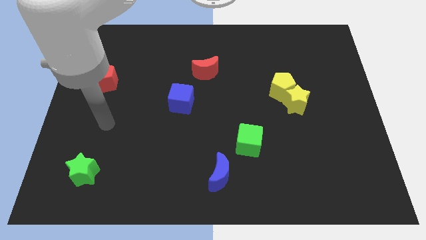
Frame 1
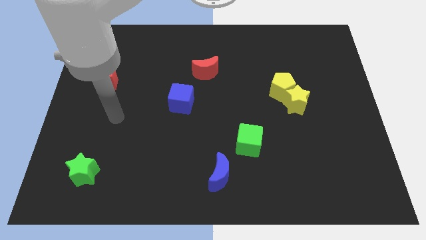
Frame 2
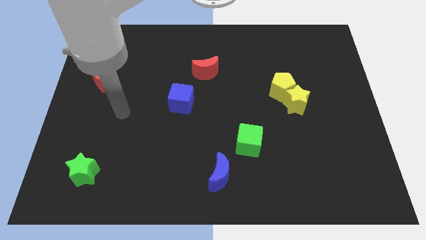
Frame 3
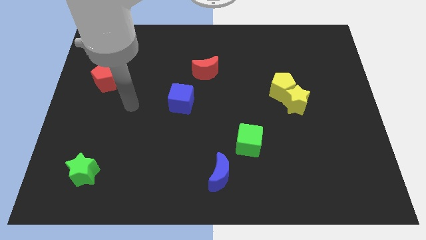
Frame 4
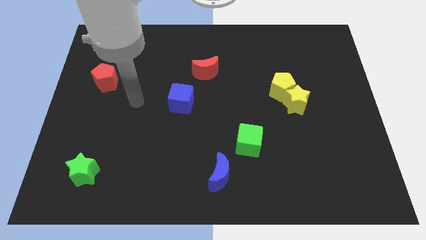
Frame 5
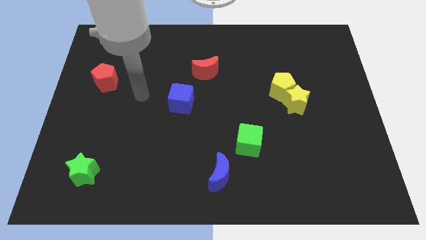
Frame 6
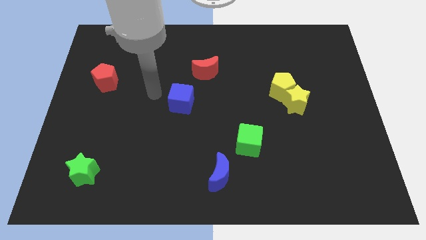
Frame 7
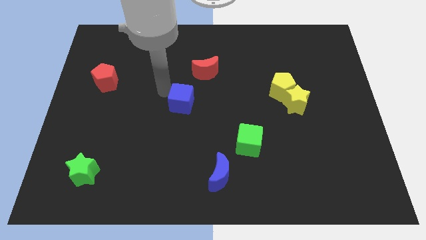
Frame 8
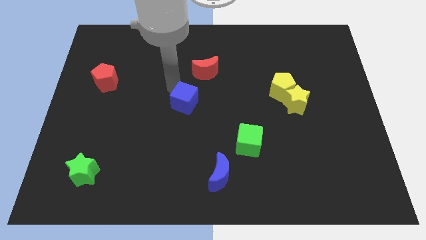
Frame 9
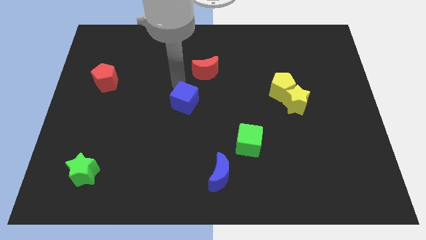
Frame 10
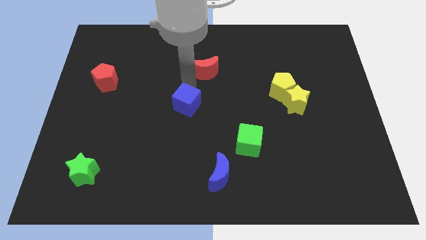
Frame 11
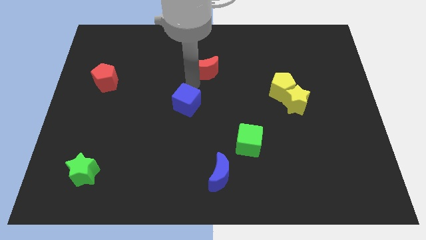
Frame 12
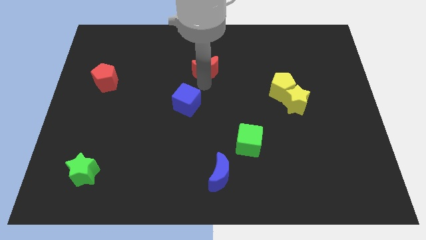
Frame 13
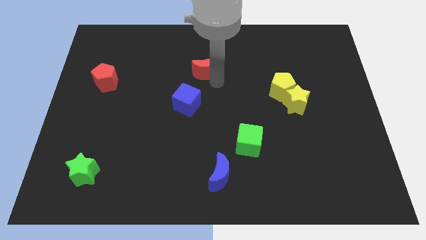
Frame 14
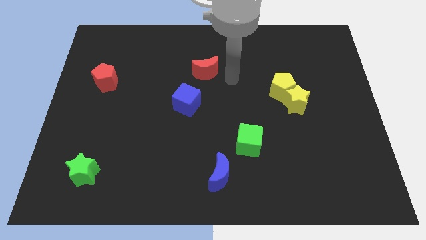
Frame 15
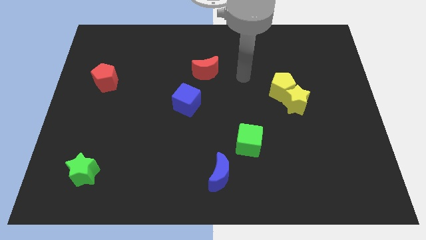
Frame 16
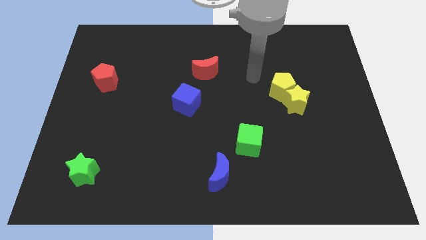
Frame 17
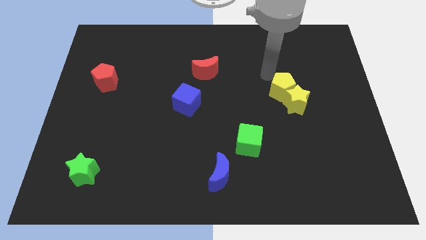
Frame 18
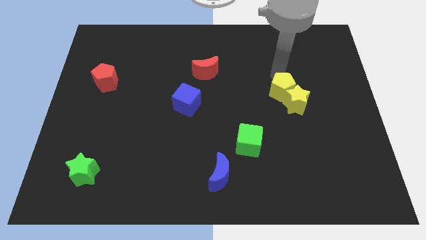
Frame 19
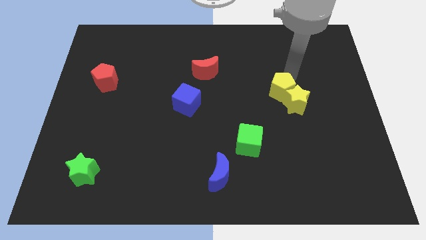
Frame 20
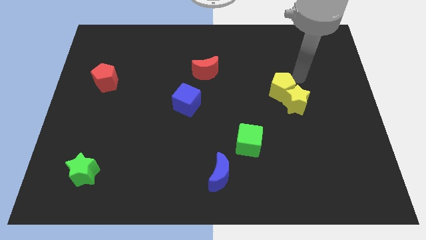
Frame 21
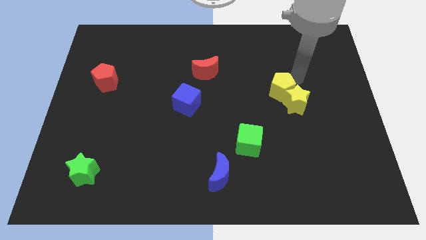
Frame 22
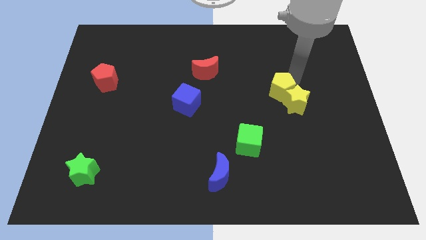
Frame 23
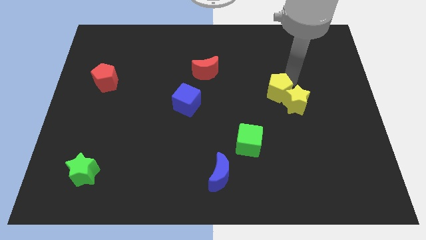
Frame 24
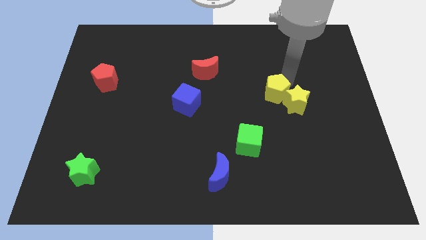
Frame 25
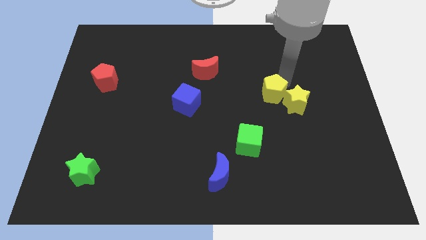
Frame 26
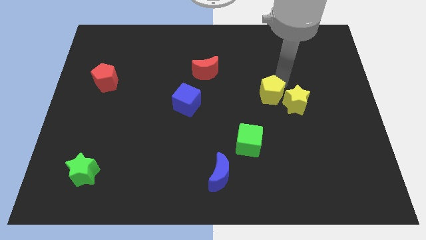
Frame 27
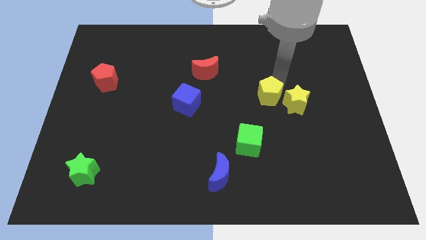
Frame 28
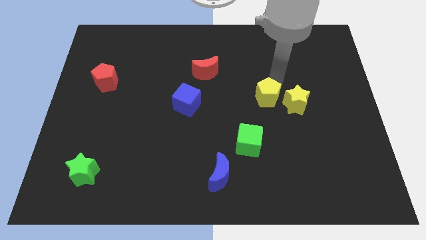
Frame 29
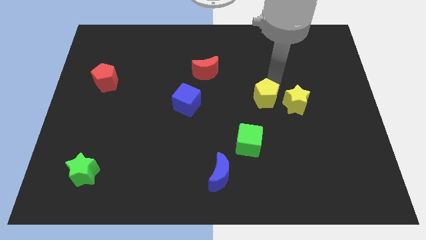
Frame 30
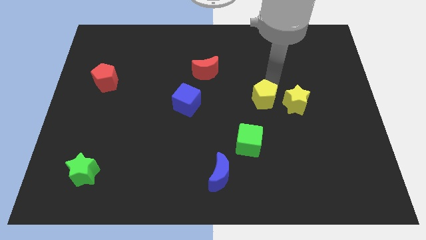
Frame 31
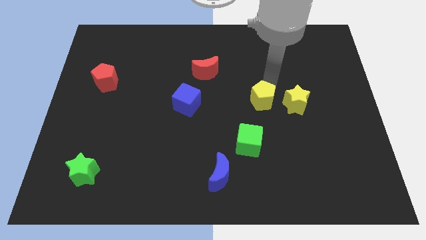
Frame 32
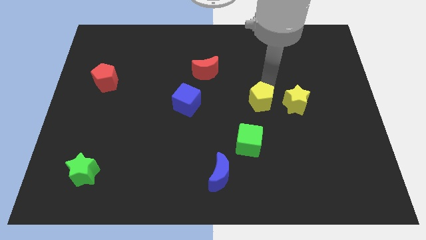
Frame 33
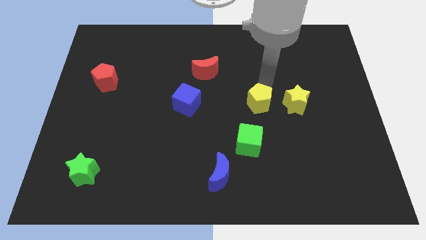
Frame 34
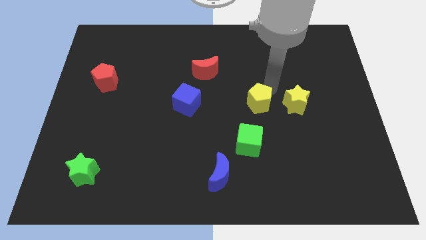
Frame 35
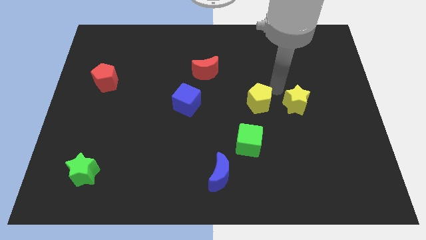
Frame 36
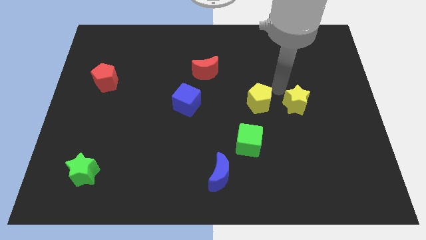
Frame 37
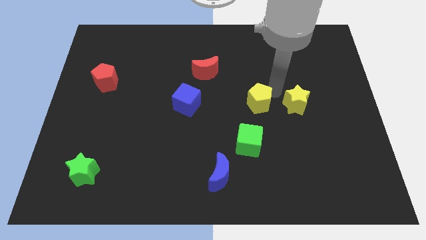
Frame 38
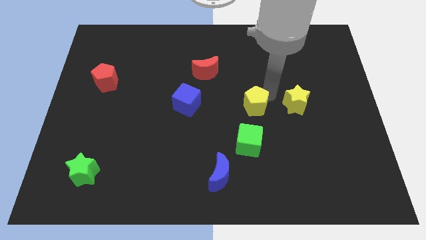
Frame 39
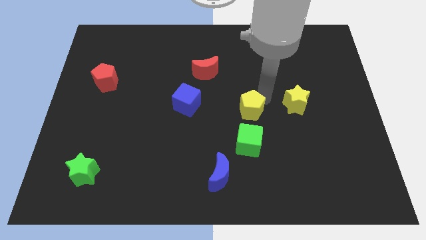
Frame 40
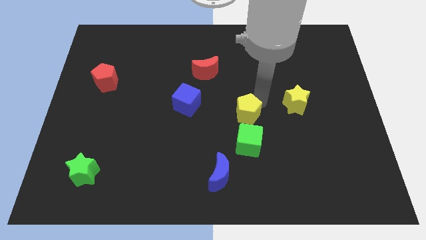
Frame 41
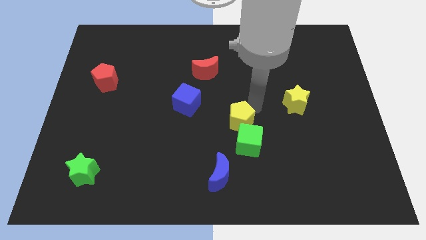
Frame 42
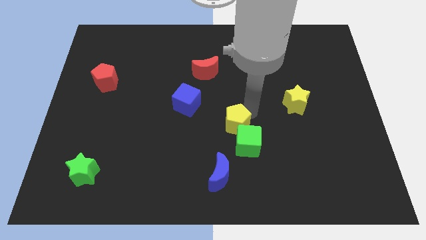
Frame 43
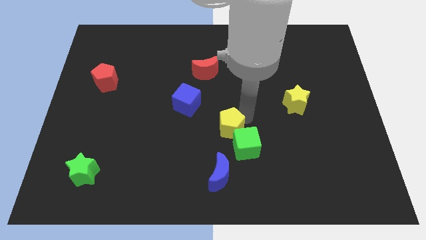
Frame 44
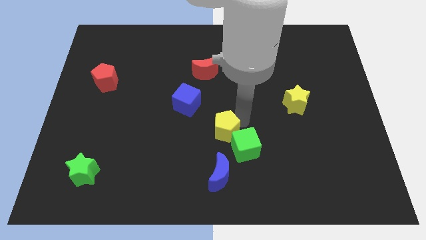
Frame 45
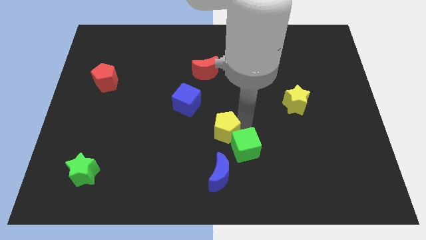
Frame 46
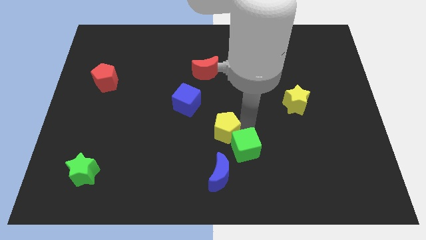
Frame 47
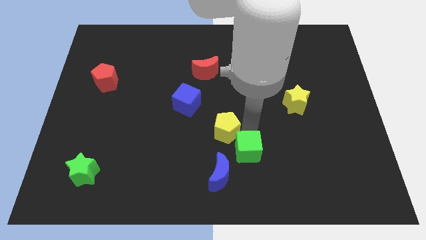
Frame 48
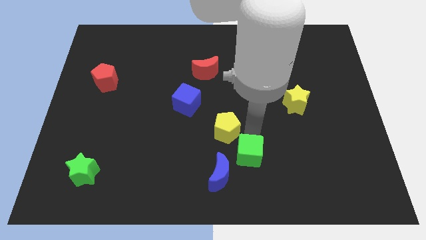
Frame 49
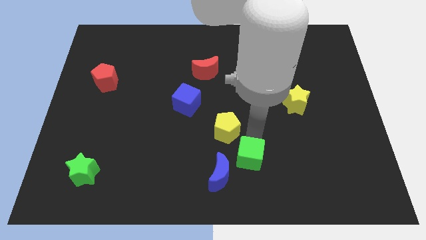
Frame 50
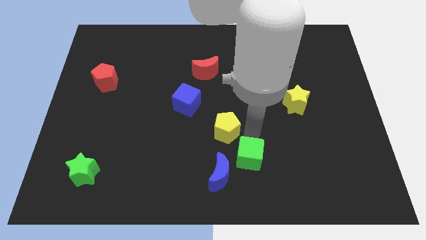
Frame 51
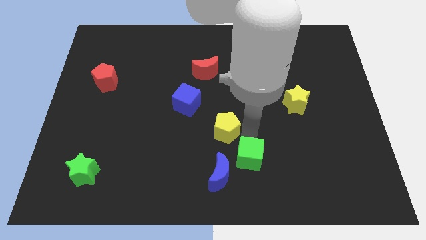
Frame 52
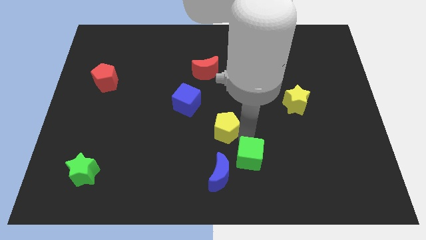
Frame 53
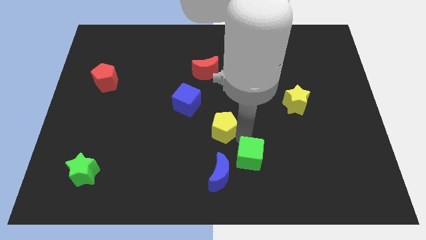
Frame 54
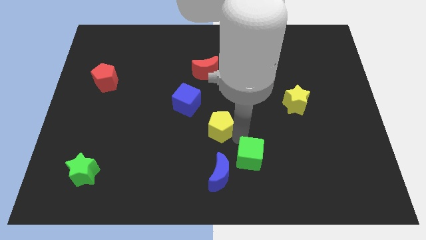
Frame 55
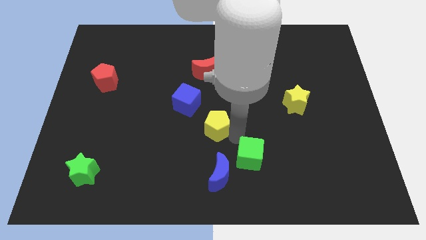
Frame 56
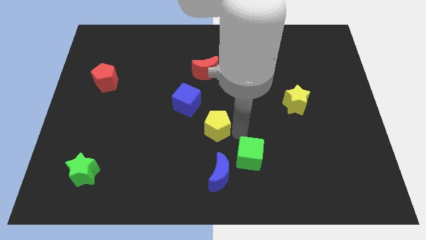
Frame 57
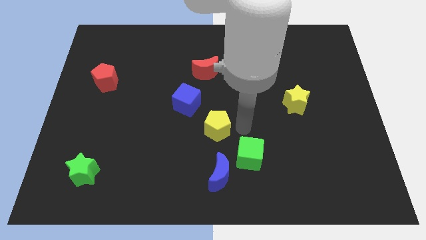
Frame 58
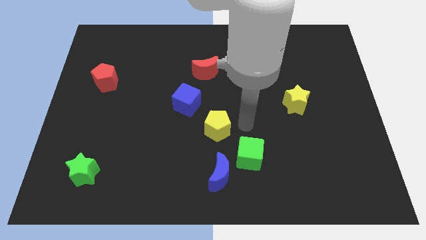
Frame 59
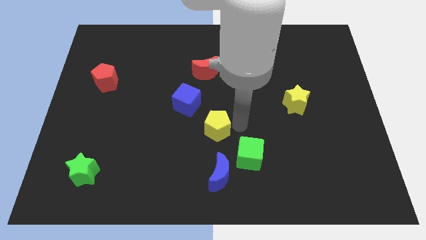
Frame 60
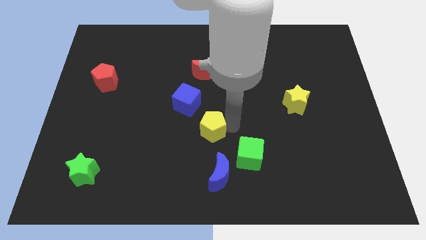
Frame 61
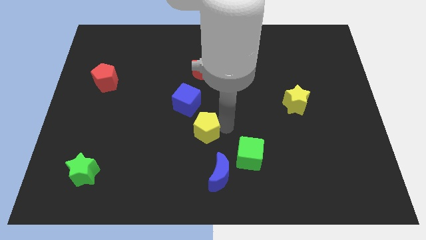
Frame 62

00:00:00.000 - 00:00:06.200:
push the yellow pentagon to the bottom side of the blue cube

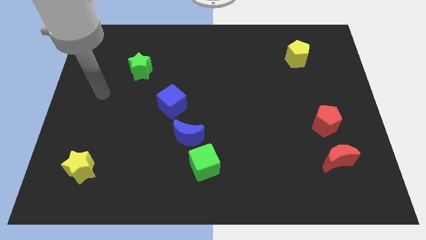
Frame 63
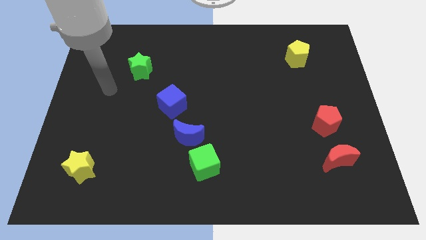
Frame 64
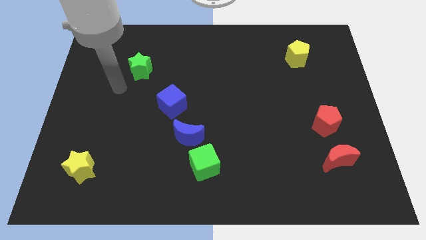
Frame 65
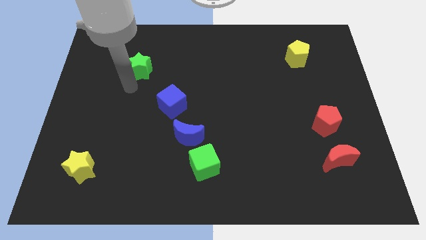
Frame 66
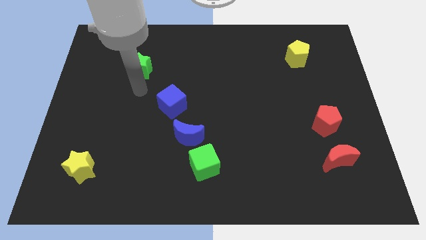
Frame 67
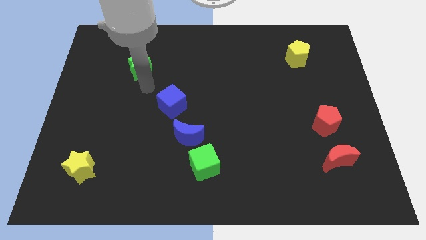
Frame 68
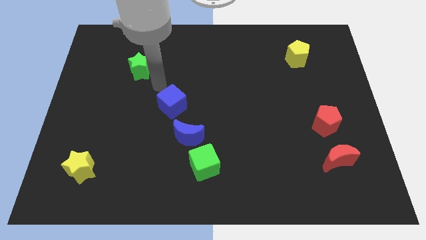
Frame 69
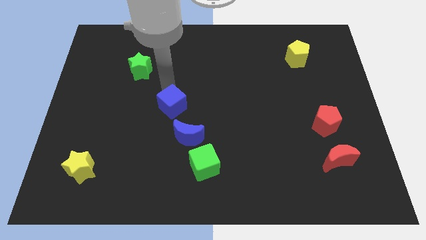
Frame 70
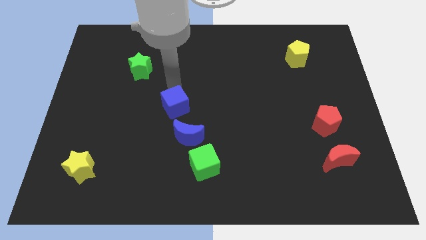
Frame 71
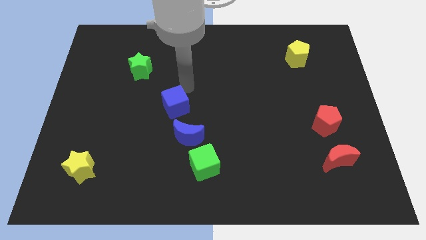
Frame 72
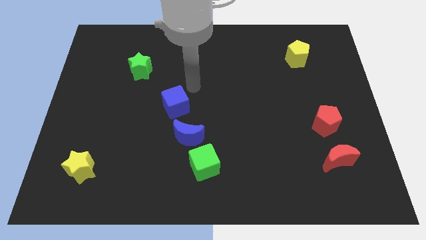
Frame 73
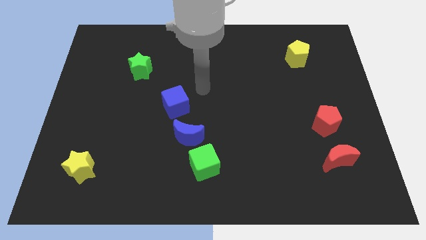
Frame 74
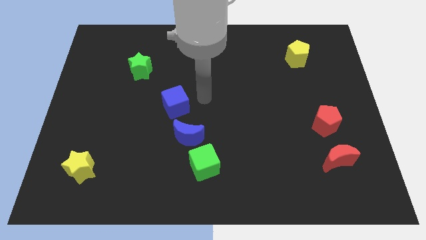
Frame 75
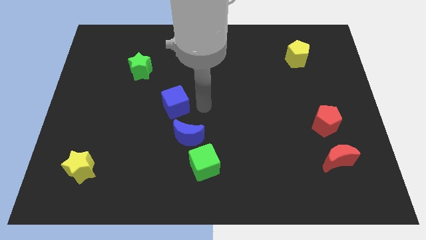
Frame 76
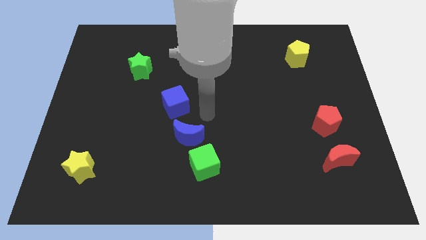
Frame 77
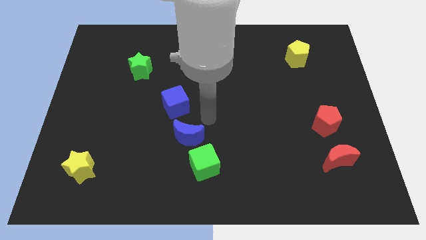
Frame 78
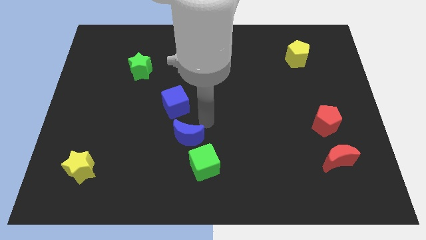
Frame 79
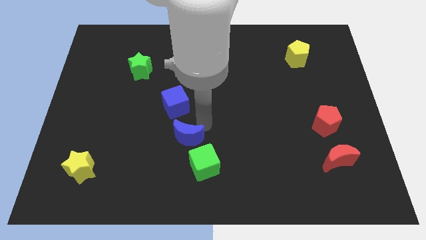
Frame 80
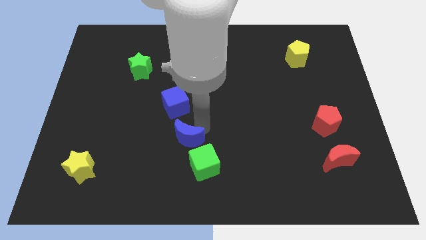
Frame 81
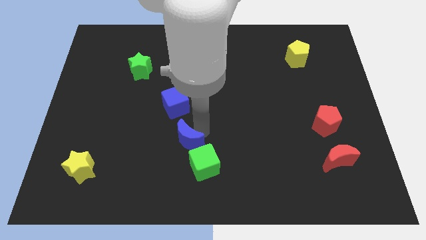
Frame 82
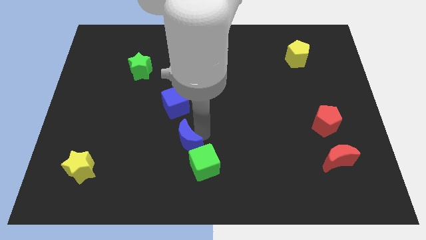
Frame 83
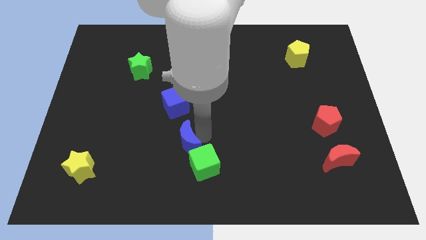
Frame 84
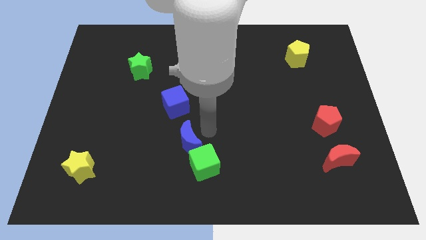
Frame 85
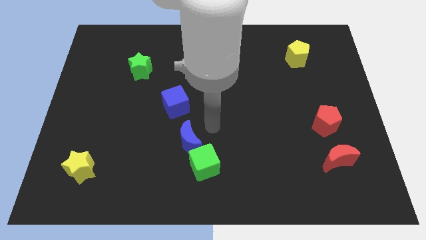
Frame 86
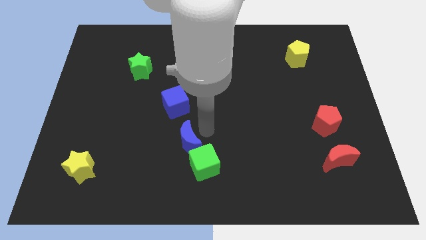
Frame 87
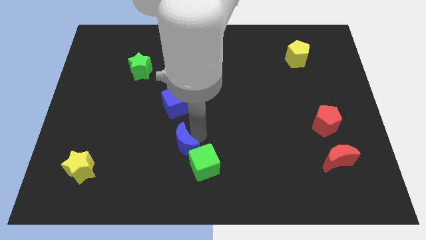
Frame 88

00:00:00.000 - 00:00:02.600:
move the blue moon just left of the green cube
